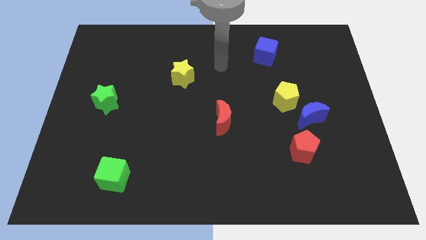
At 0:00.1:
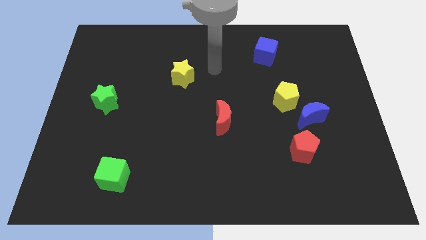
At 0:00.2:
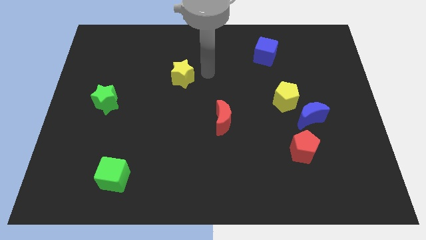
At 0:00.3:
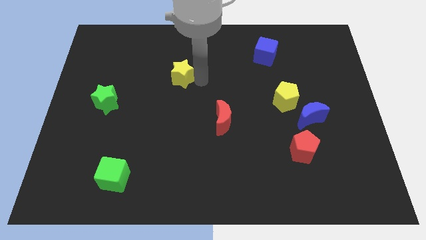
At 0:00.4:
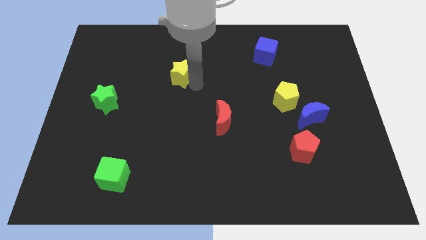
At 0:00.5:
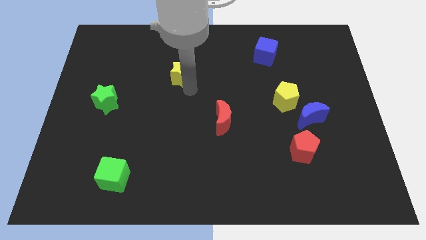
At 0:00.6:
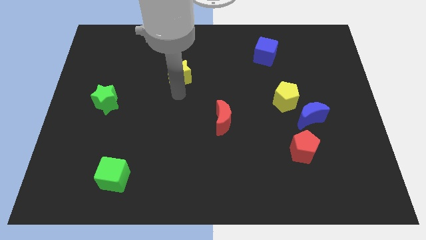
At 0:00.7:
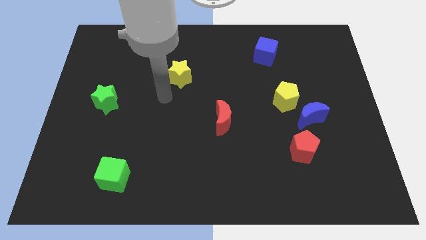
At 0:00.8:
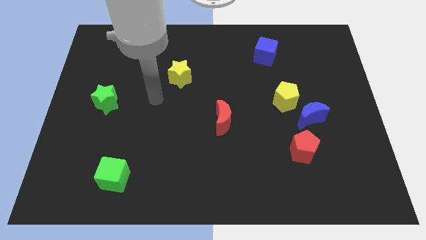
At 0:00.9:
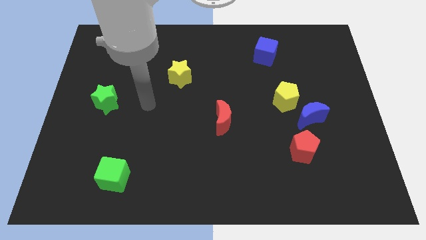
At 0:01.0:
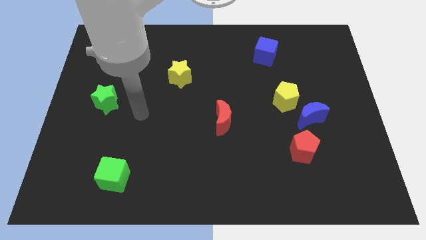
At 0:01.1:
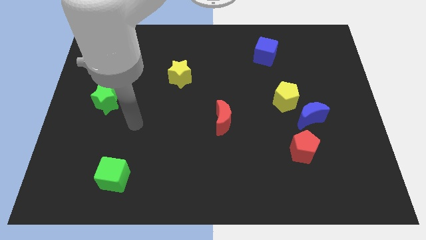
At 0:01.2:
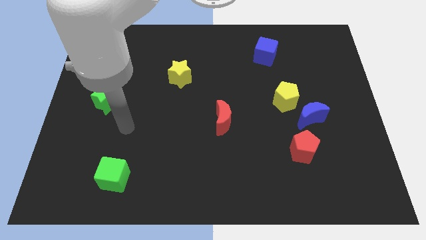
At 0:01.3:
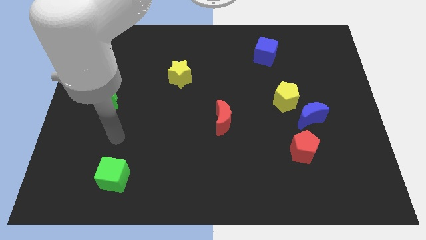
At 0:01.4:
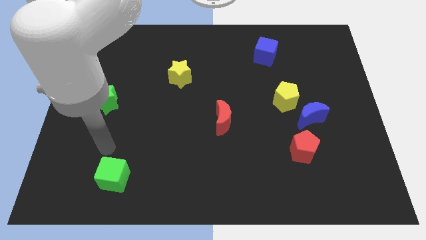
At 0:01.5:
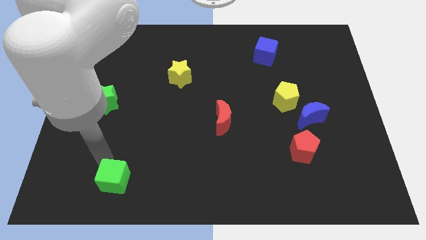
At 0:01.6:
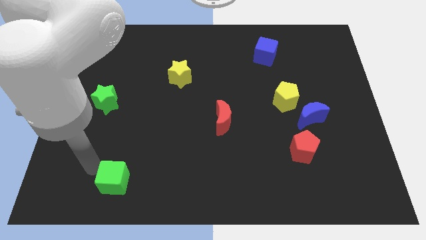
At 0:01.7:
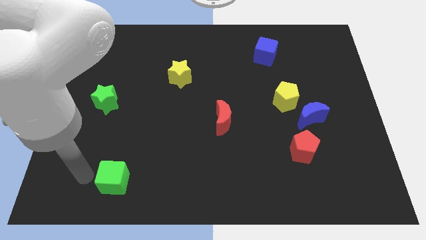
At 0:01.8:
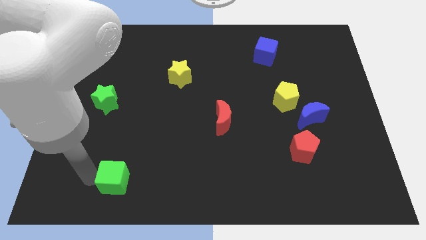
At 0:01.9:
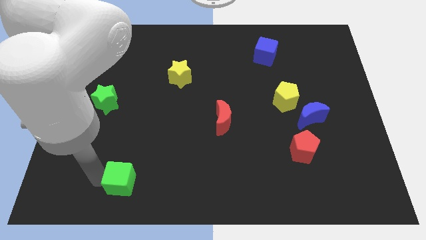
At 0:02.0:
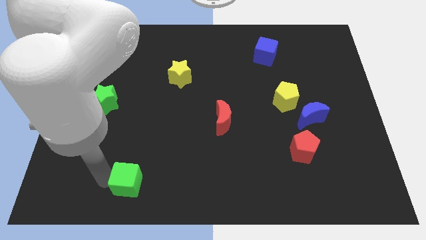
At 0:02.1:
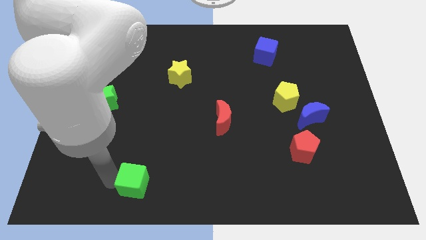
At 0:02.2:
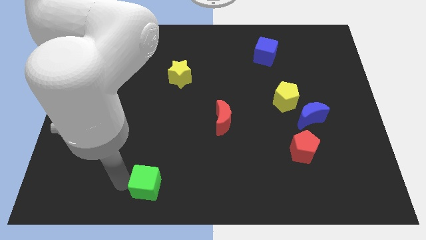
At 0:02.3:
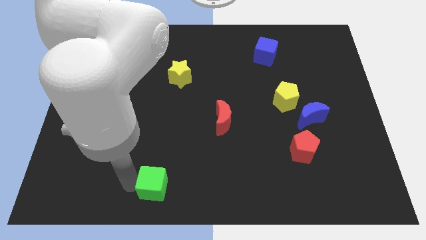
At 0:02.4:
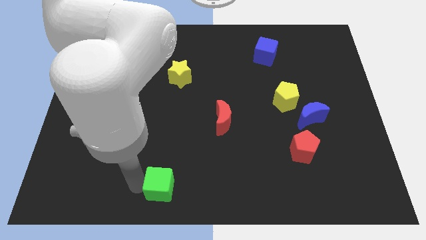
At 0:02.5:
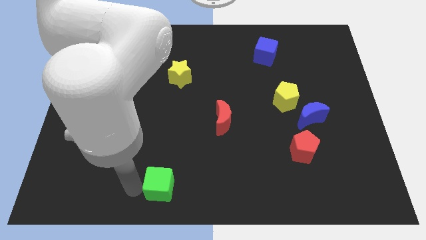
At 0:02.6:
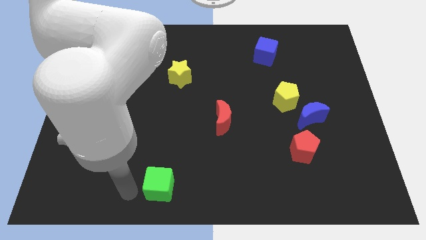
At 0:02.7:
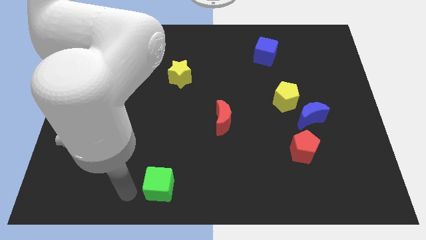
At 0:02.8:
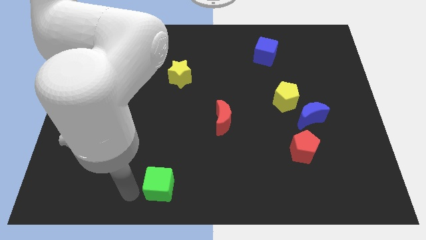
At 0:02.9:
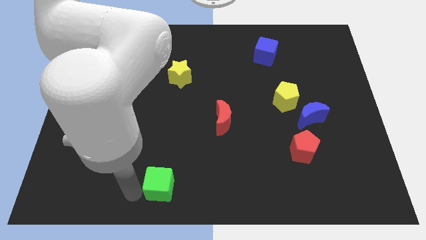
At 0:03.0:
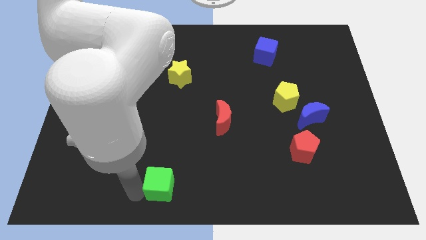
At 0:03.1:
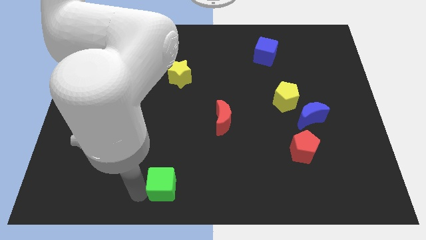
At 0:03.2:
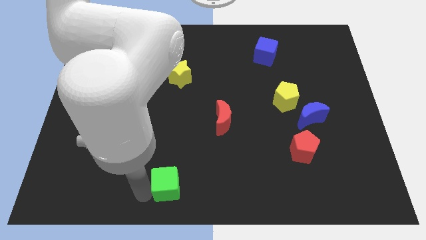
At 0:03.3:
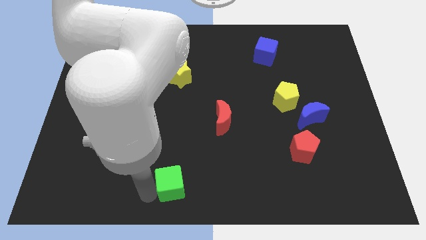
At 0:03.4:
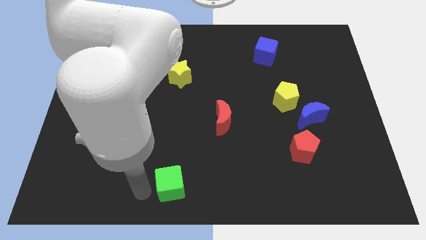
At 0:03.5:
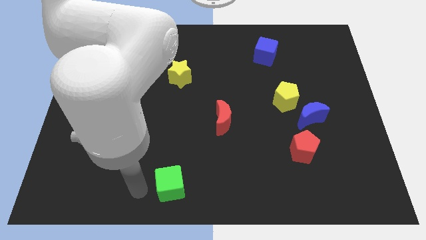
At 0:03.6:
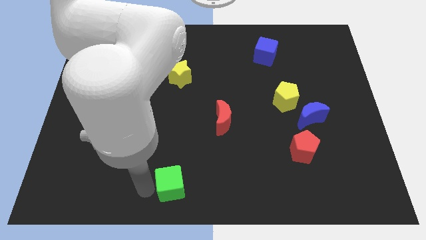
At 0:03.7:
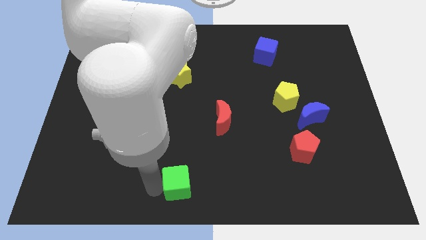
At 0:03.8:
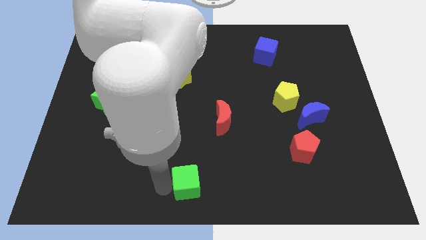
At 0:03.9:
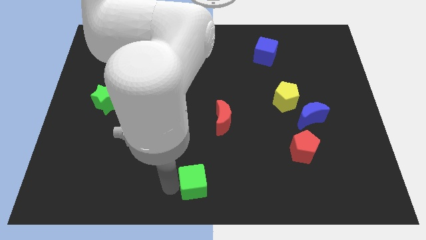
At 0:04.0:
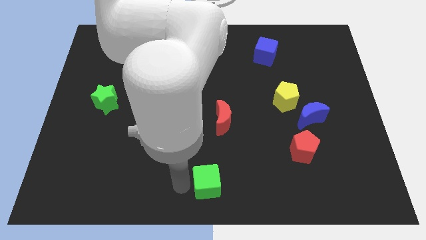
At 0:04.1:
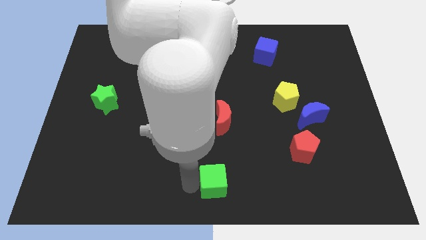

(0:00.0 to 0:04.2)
move the green cube right

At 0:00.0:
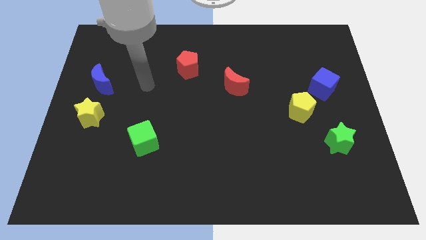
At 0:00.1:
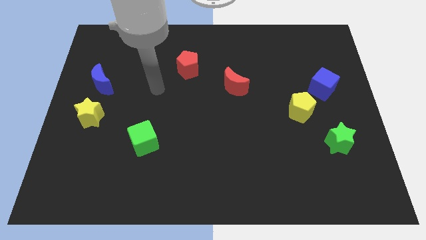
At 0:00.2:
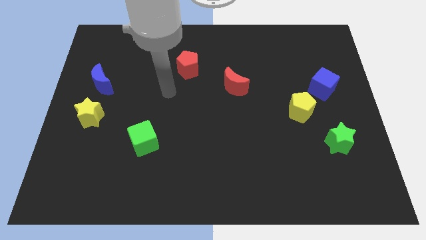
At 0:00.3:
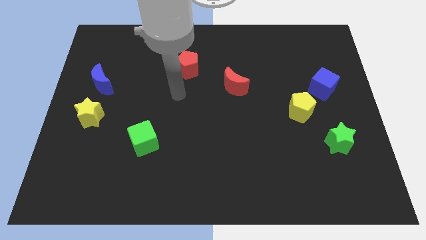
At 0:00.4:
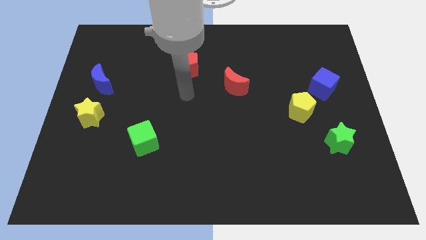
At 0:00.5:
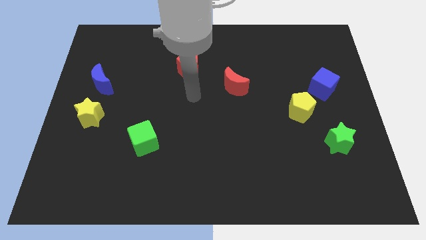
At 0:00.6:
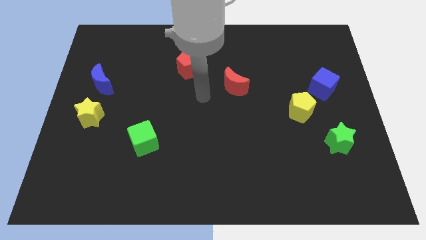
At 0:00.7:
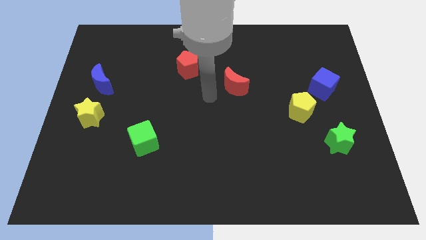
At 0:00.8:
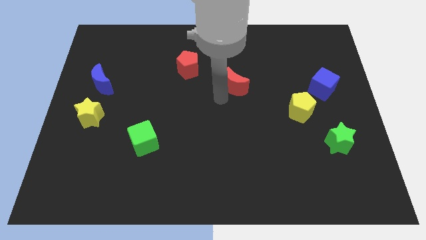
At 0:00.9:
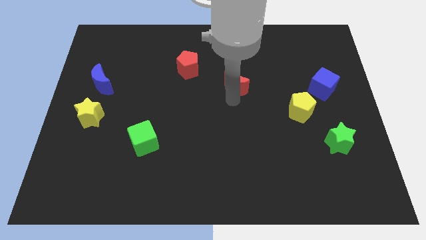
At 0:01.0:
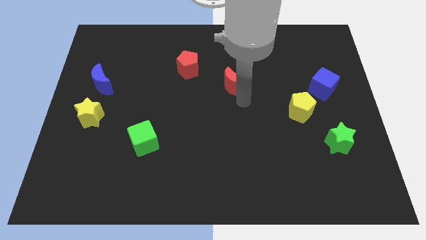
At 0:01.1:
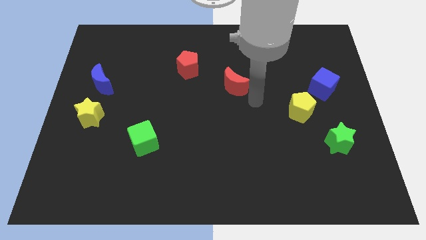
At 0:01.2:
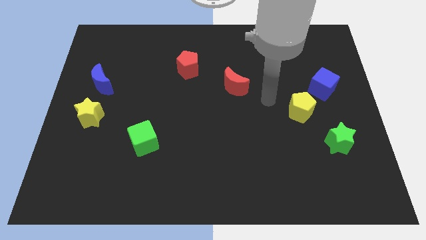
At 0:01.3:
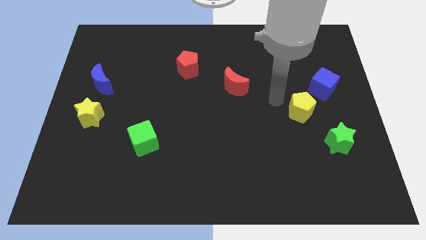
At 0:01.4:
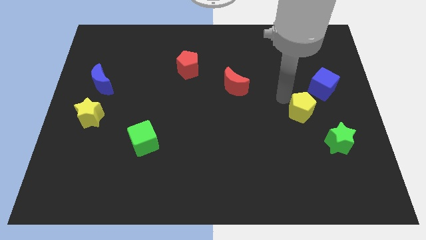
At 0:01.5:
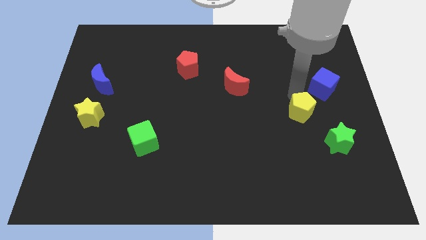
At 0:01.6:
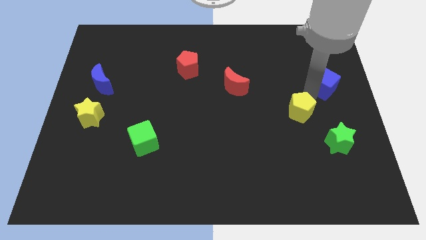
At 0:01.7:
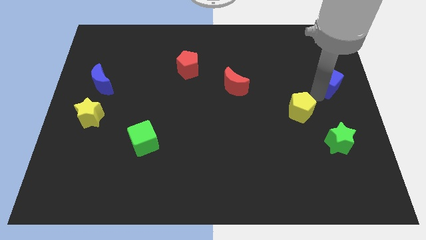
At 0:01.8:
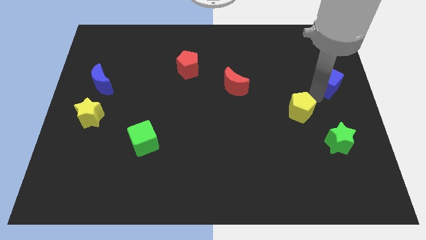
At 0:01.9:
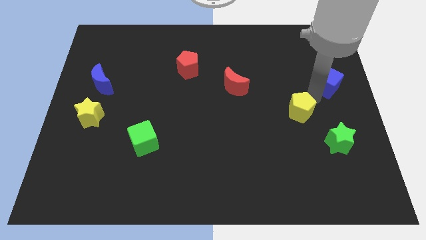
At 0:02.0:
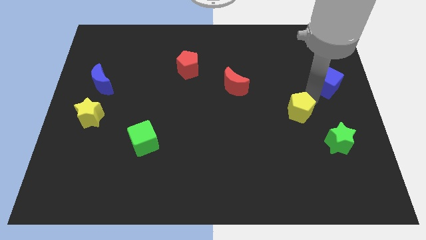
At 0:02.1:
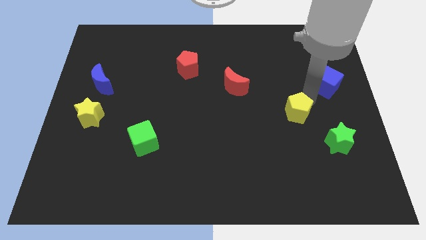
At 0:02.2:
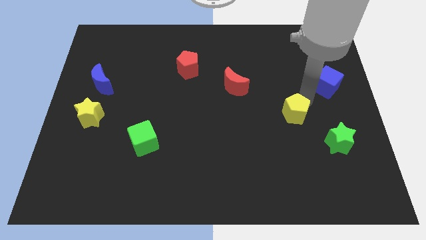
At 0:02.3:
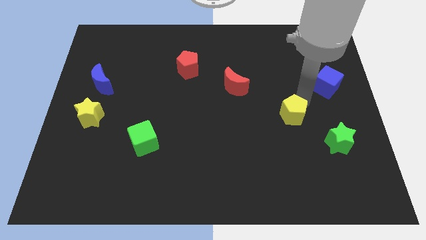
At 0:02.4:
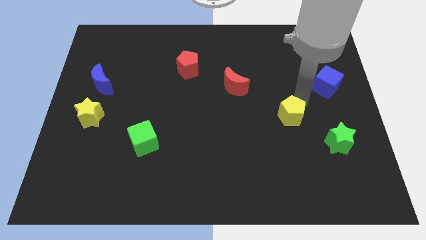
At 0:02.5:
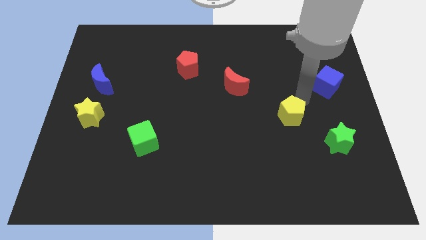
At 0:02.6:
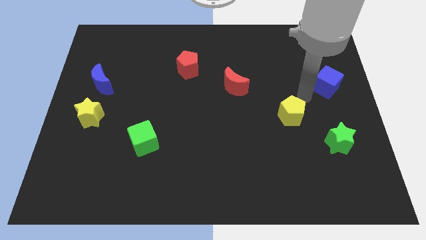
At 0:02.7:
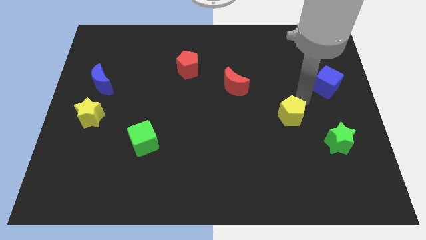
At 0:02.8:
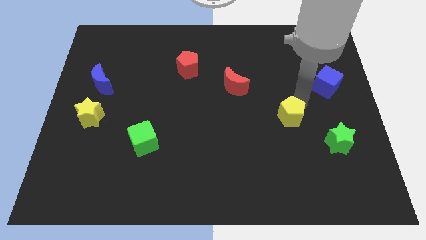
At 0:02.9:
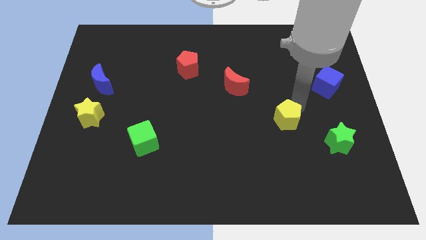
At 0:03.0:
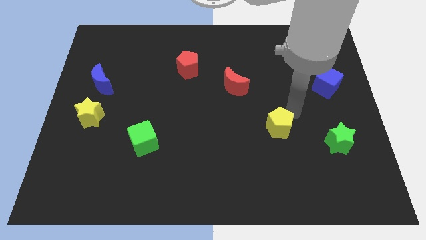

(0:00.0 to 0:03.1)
slightly move the yellow pentagon downwards and to the left

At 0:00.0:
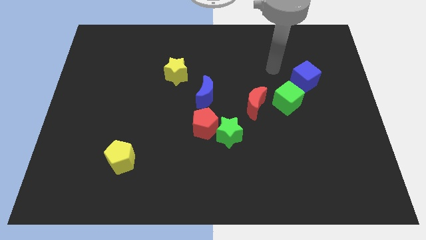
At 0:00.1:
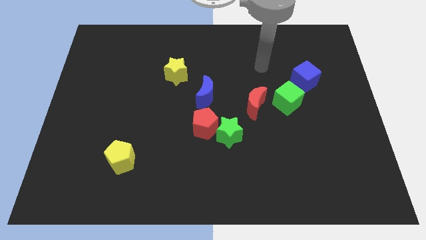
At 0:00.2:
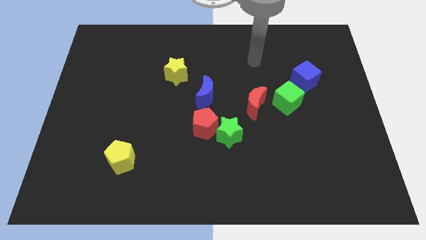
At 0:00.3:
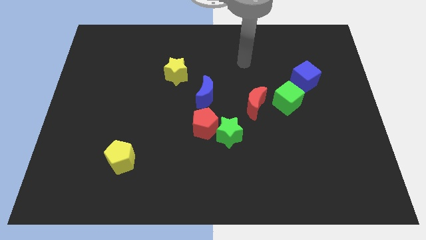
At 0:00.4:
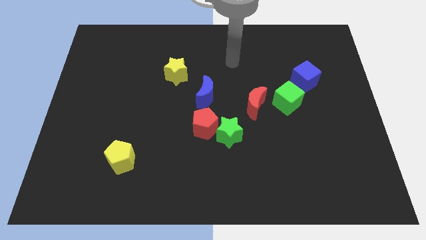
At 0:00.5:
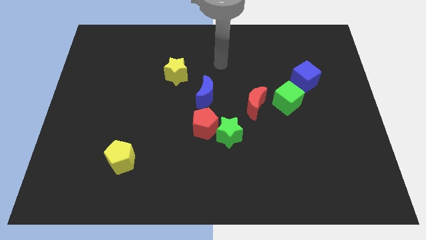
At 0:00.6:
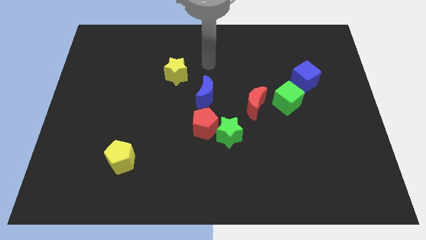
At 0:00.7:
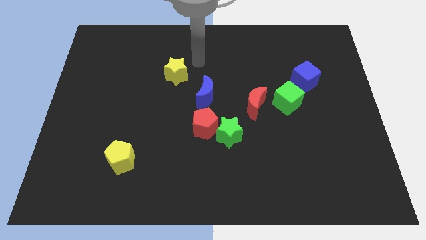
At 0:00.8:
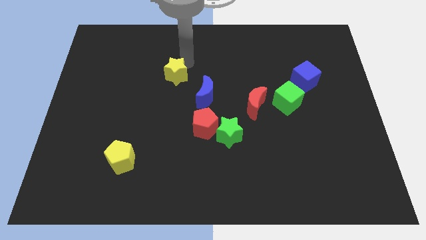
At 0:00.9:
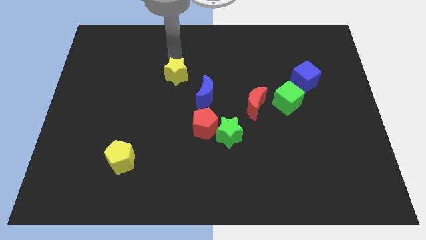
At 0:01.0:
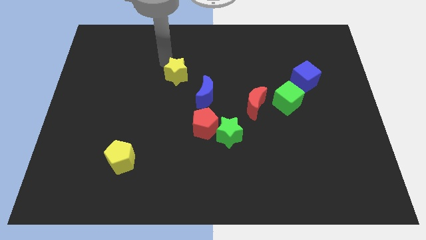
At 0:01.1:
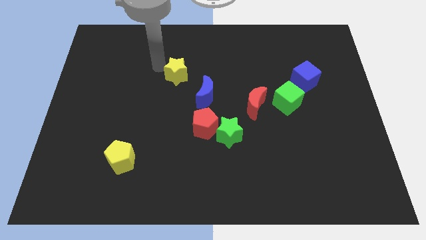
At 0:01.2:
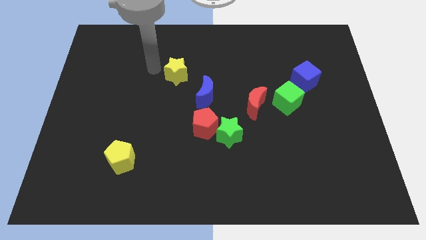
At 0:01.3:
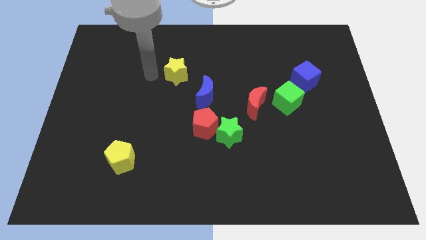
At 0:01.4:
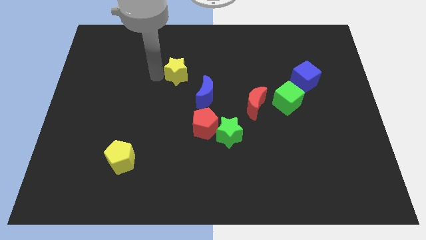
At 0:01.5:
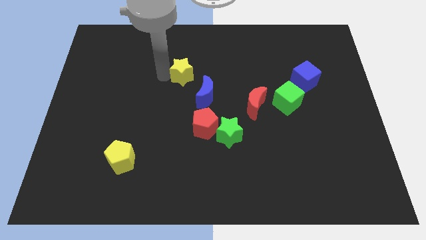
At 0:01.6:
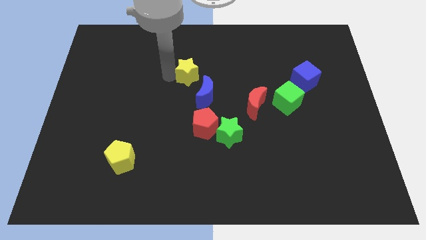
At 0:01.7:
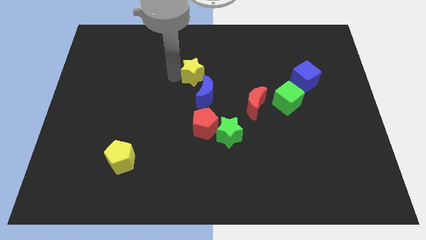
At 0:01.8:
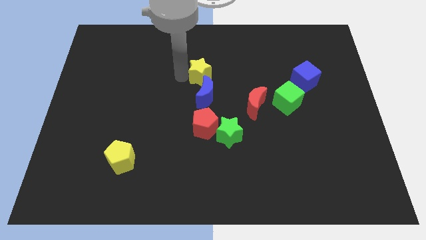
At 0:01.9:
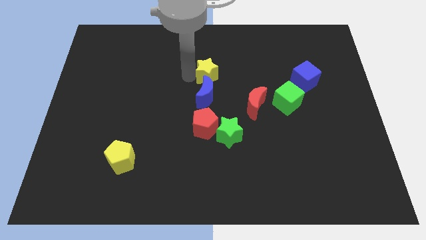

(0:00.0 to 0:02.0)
push the yellow star somewhat to the right
